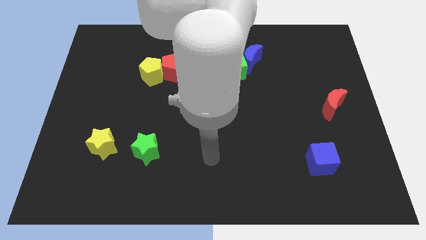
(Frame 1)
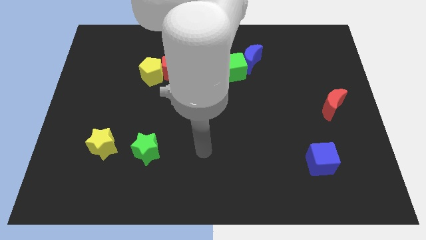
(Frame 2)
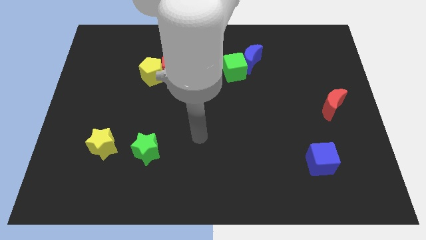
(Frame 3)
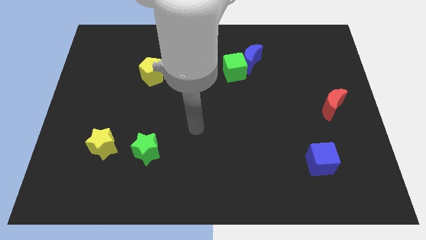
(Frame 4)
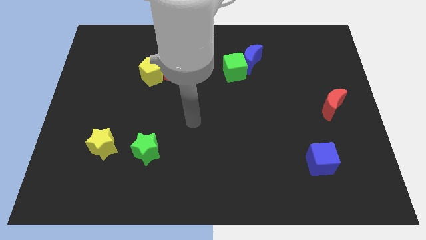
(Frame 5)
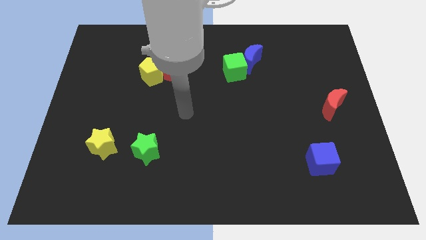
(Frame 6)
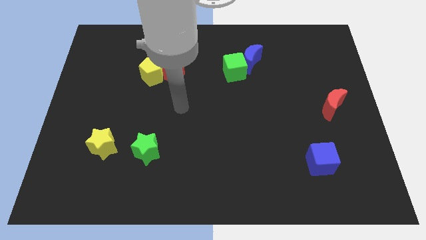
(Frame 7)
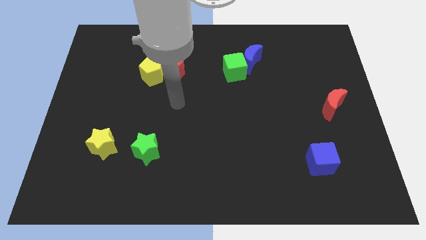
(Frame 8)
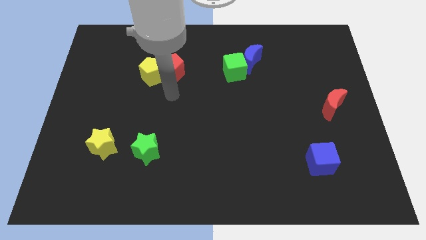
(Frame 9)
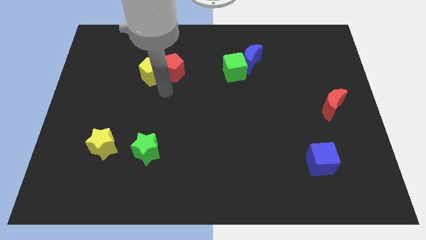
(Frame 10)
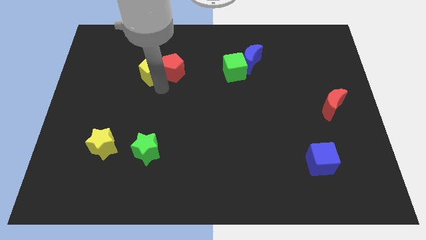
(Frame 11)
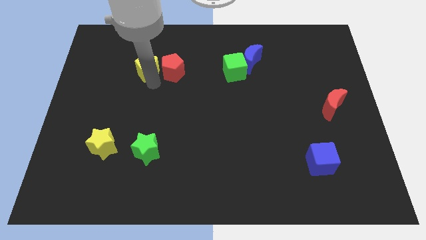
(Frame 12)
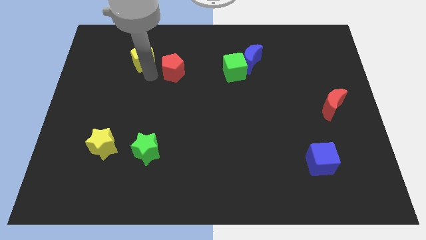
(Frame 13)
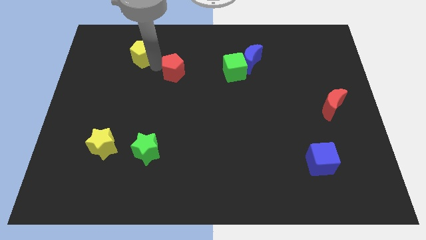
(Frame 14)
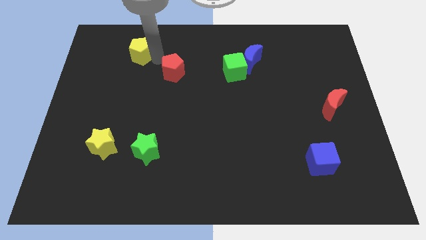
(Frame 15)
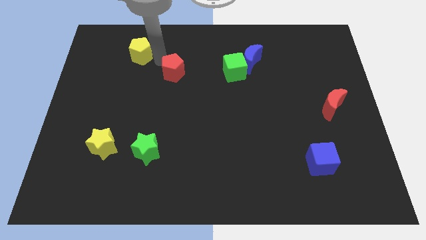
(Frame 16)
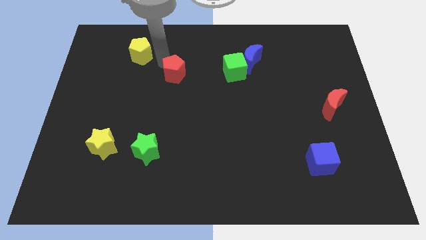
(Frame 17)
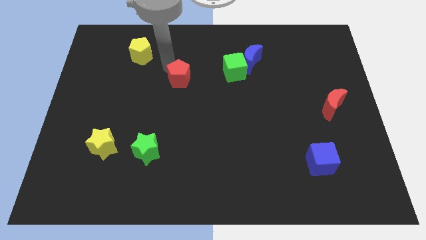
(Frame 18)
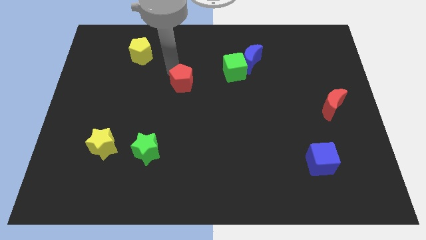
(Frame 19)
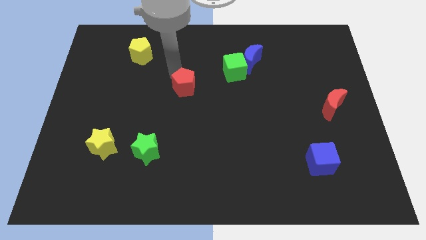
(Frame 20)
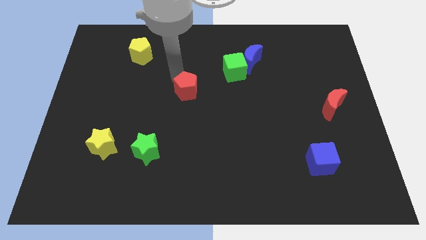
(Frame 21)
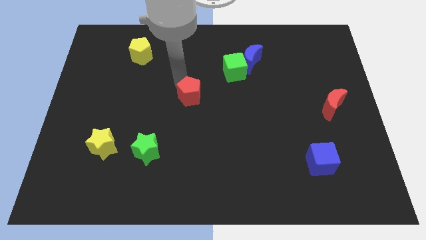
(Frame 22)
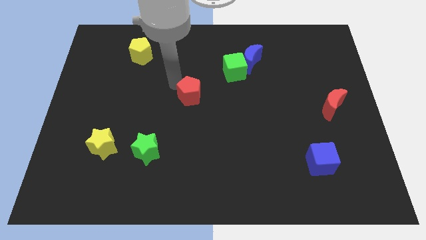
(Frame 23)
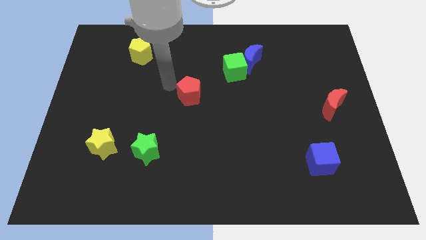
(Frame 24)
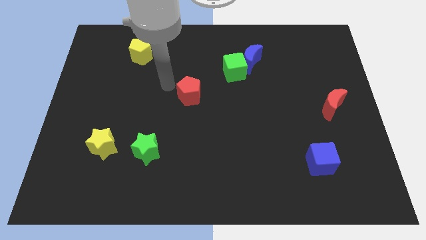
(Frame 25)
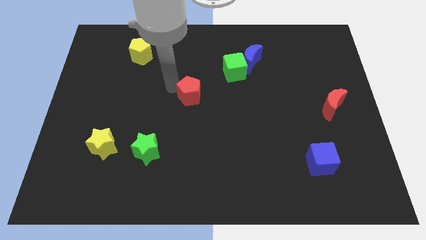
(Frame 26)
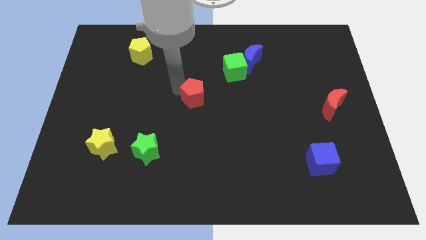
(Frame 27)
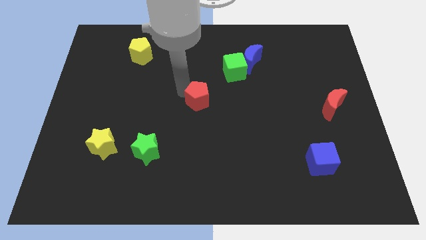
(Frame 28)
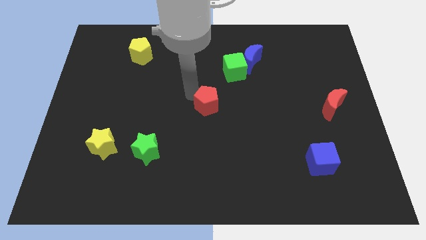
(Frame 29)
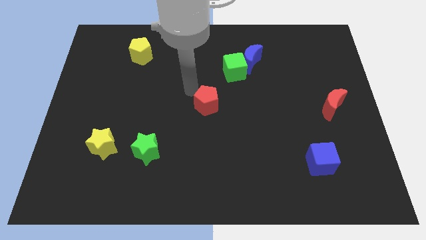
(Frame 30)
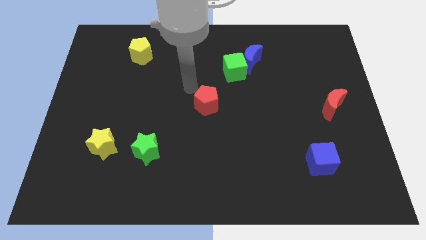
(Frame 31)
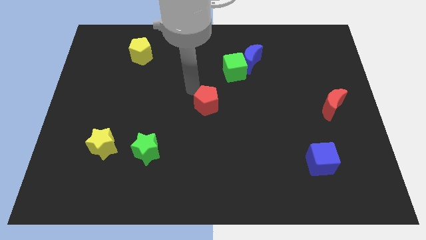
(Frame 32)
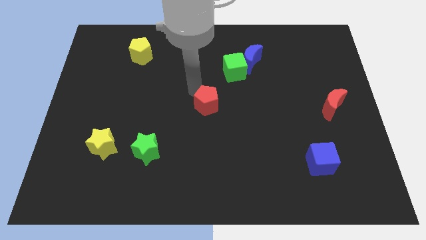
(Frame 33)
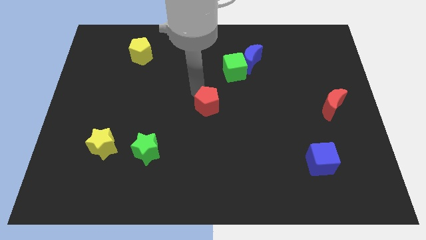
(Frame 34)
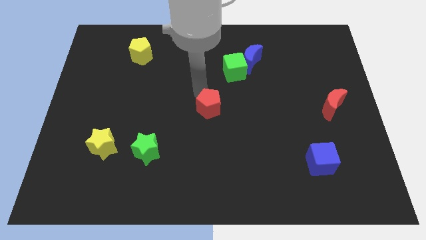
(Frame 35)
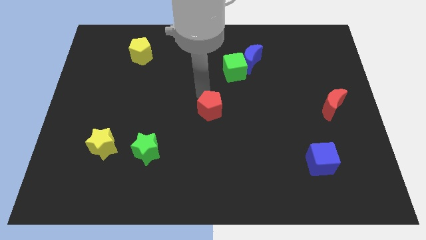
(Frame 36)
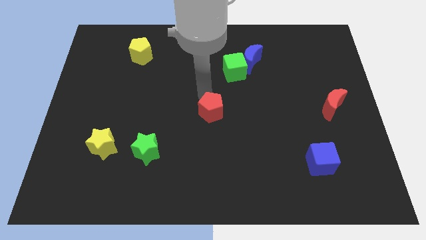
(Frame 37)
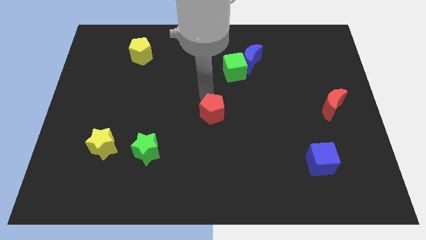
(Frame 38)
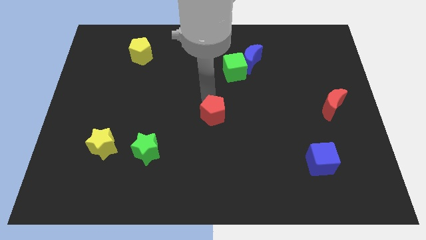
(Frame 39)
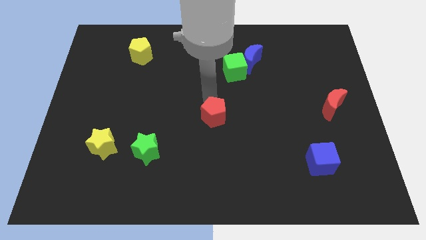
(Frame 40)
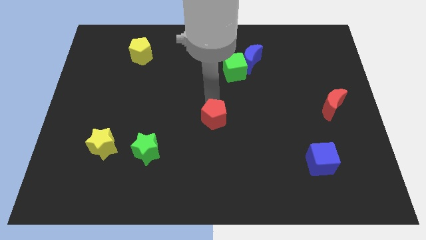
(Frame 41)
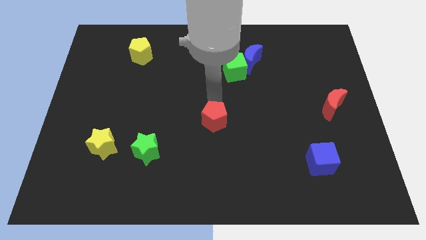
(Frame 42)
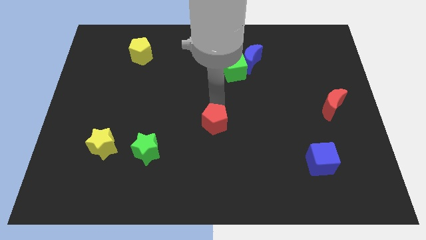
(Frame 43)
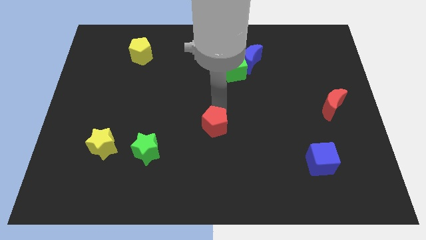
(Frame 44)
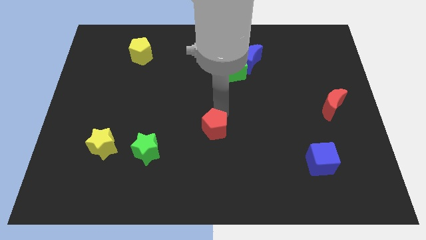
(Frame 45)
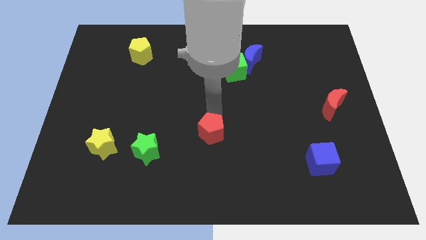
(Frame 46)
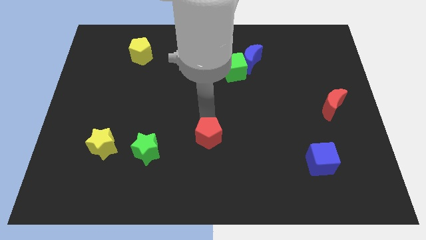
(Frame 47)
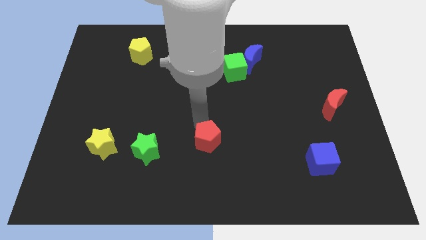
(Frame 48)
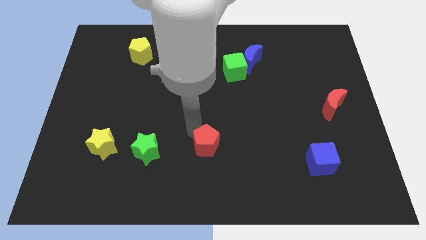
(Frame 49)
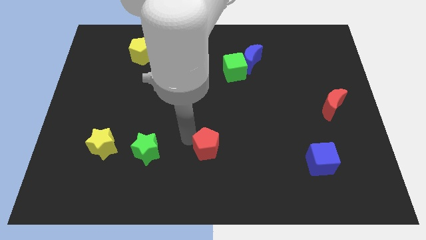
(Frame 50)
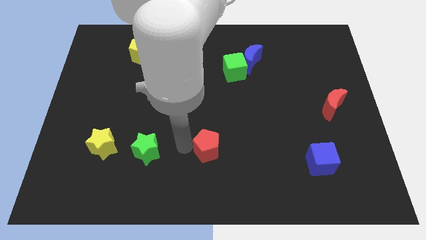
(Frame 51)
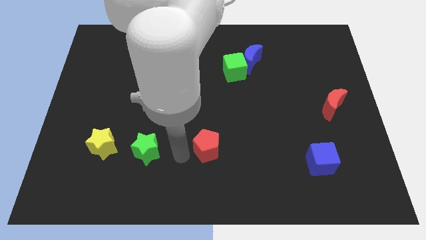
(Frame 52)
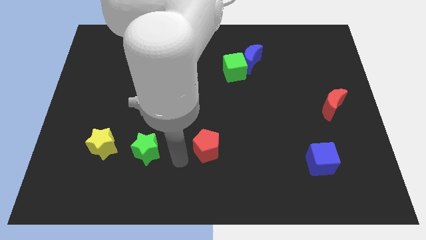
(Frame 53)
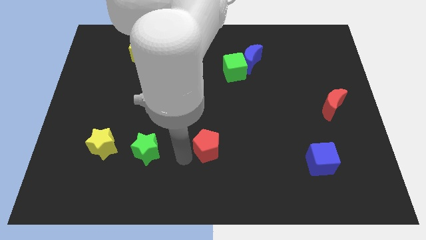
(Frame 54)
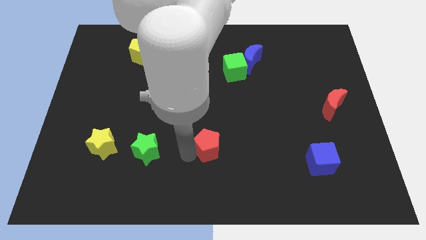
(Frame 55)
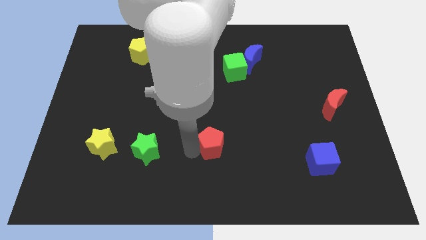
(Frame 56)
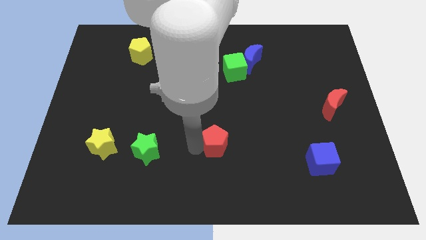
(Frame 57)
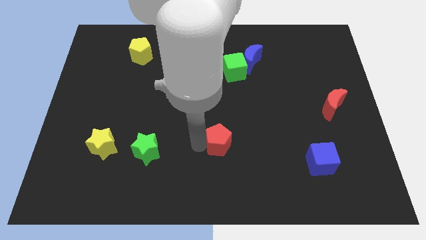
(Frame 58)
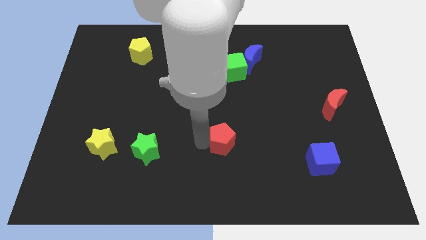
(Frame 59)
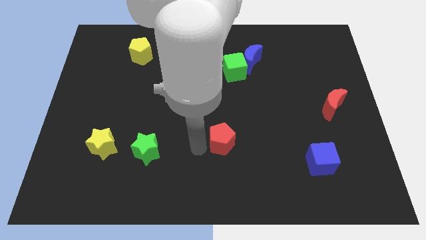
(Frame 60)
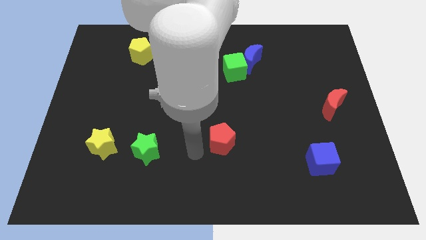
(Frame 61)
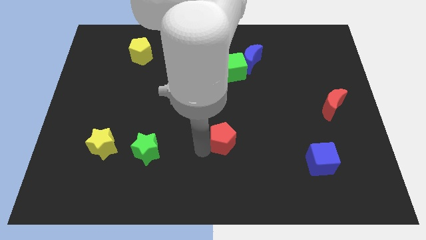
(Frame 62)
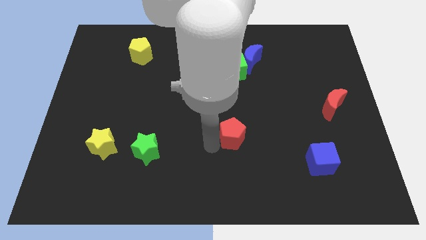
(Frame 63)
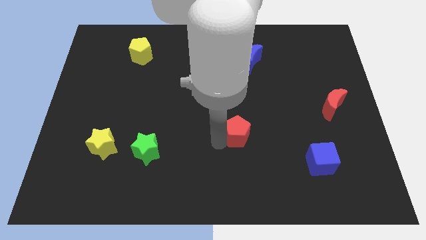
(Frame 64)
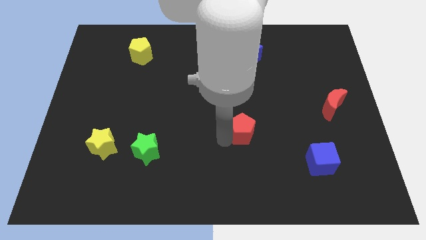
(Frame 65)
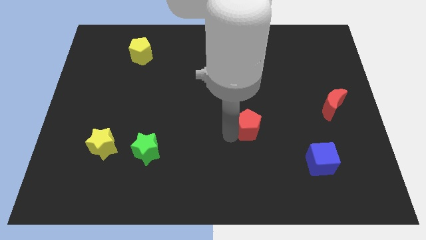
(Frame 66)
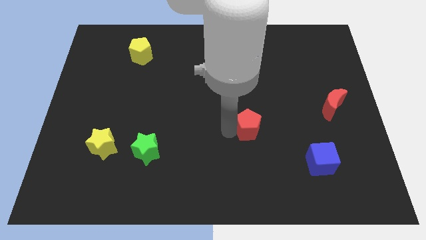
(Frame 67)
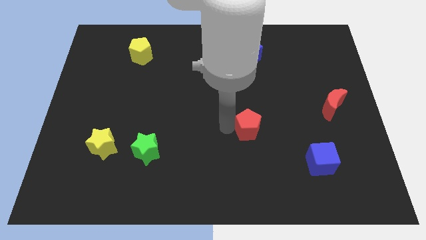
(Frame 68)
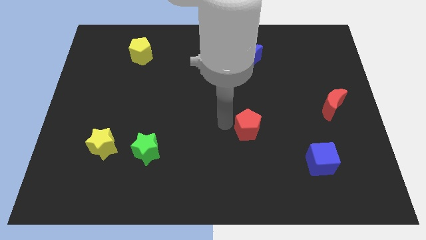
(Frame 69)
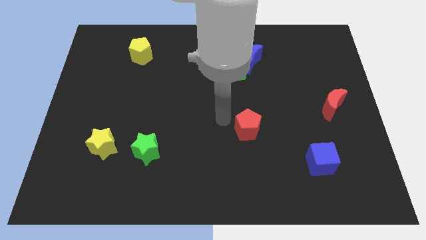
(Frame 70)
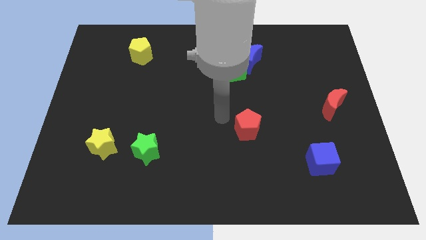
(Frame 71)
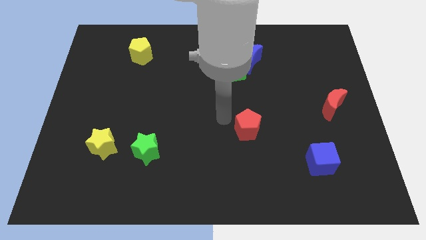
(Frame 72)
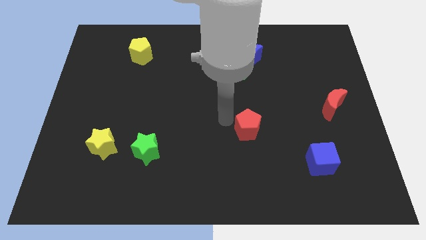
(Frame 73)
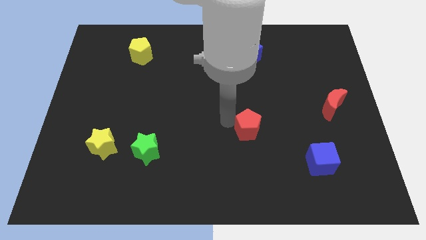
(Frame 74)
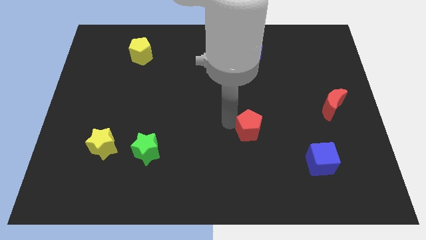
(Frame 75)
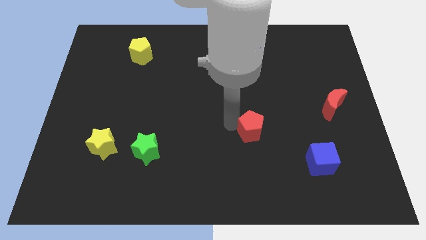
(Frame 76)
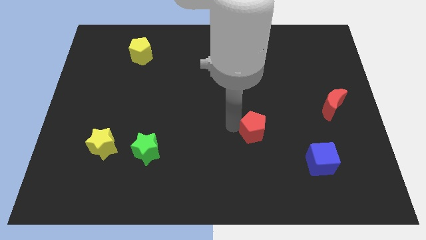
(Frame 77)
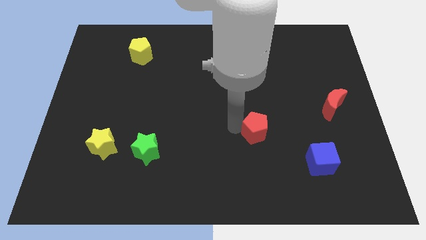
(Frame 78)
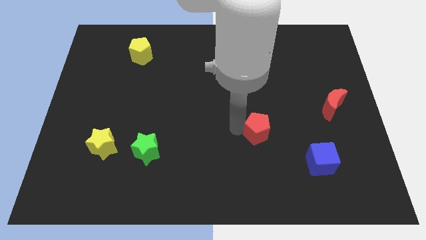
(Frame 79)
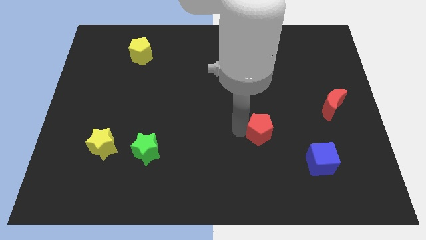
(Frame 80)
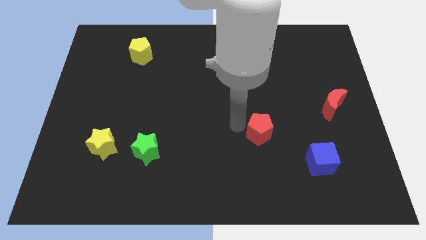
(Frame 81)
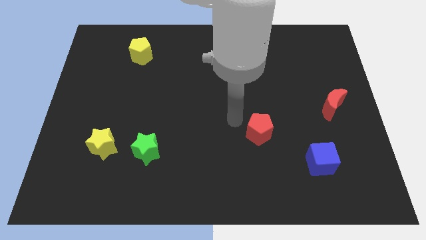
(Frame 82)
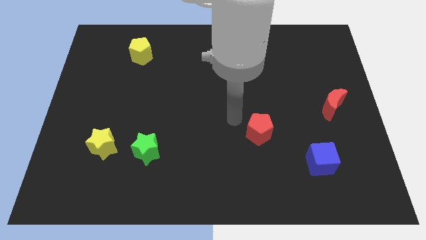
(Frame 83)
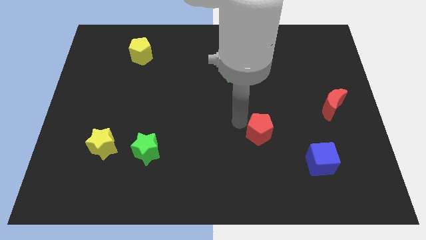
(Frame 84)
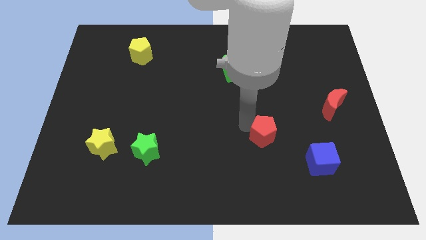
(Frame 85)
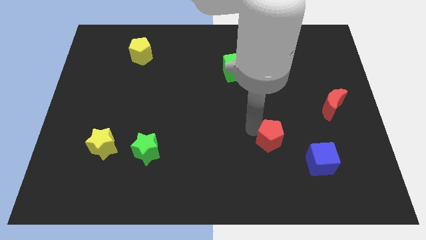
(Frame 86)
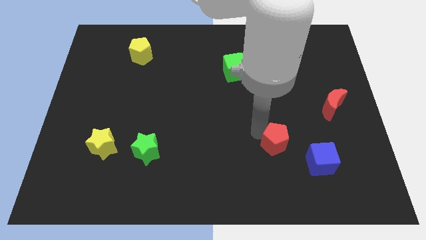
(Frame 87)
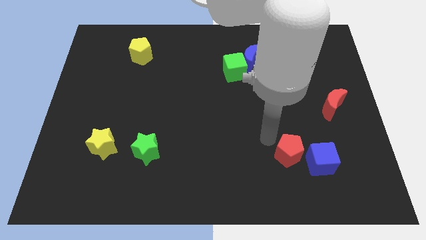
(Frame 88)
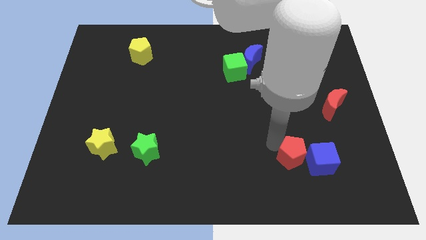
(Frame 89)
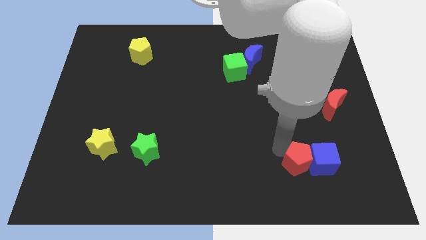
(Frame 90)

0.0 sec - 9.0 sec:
put the red pentagon towards the blue cube
